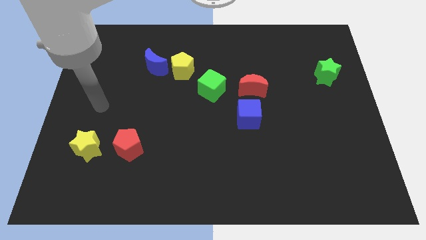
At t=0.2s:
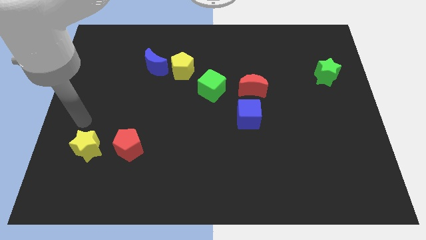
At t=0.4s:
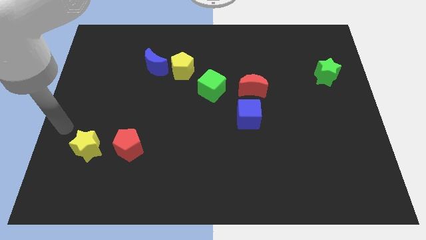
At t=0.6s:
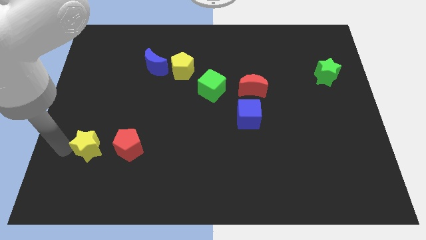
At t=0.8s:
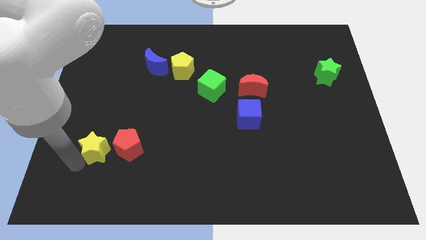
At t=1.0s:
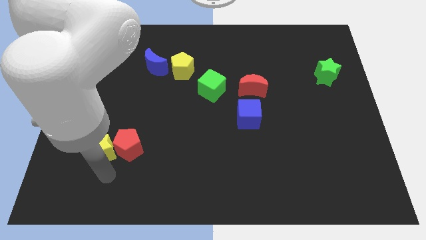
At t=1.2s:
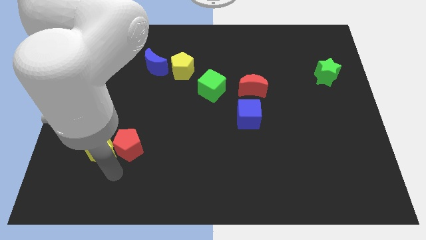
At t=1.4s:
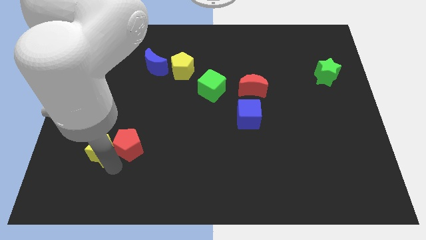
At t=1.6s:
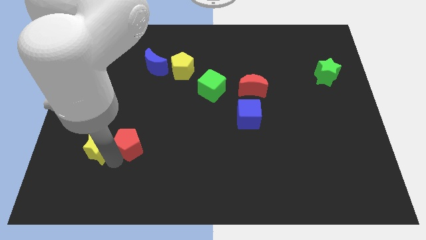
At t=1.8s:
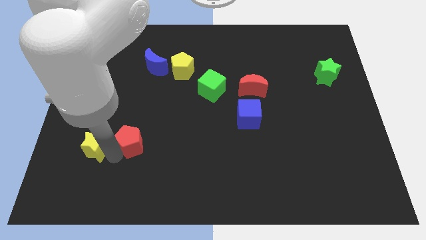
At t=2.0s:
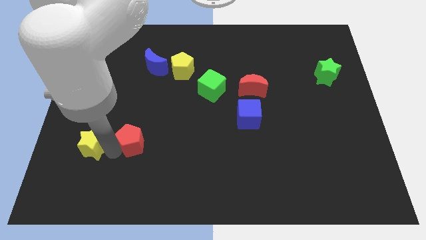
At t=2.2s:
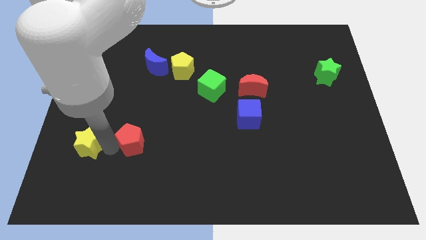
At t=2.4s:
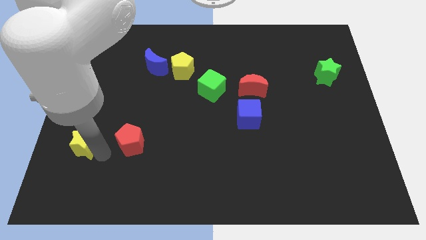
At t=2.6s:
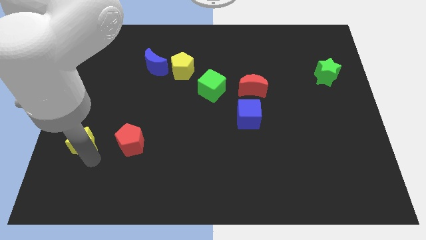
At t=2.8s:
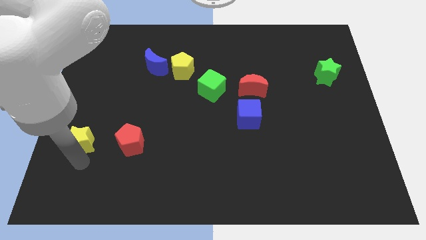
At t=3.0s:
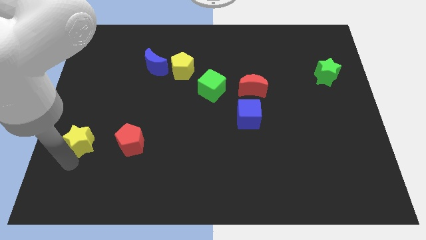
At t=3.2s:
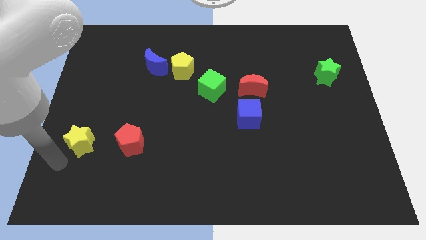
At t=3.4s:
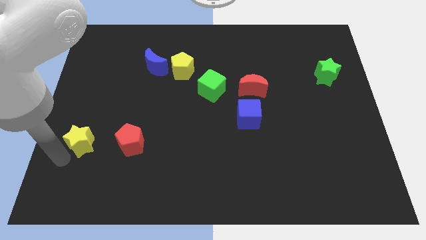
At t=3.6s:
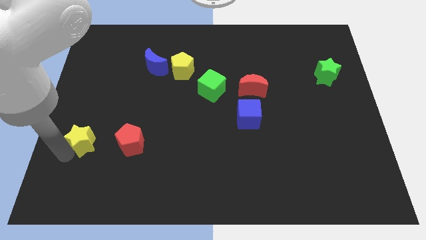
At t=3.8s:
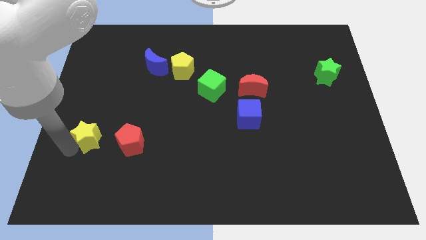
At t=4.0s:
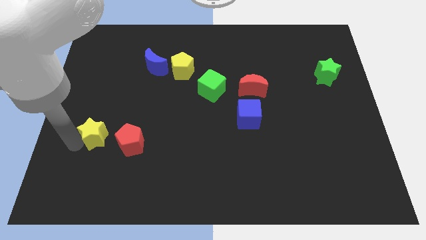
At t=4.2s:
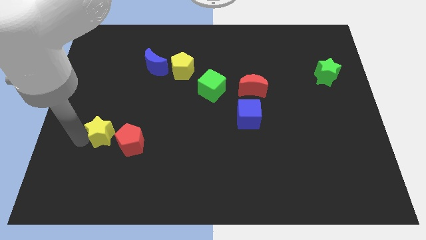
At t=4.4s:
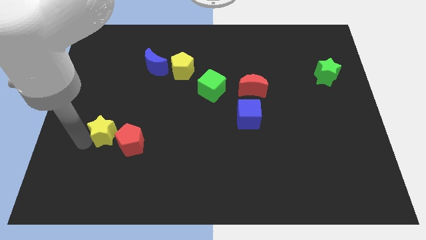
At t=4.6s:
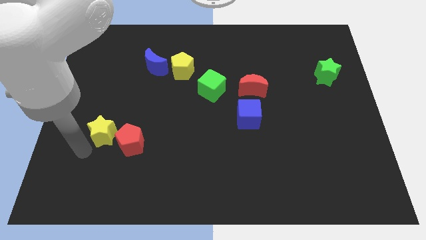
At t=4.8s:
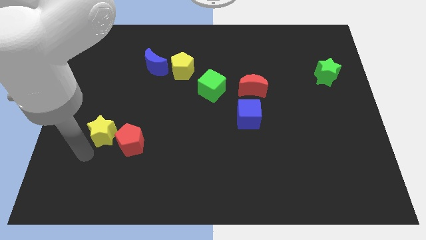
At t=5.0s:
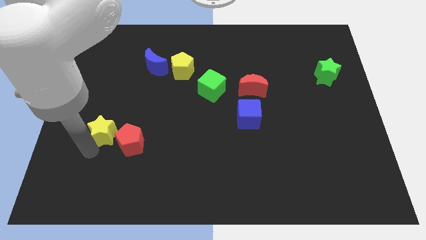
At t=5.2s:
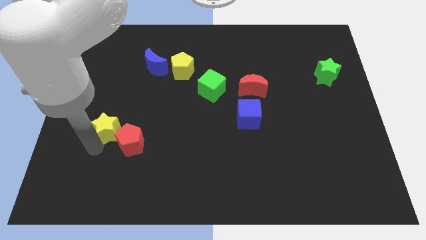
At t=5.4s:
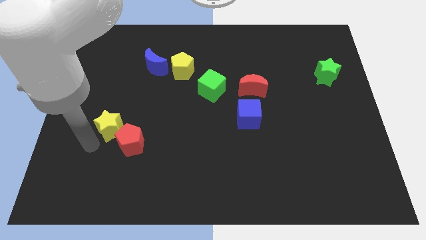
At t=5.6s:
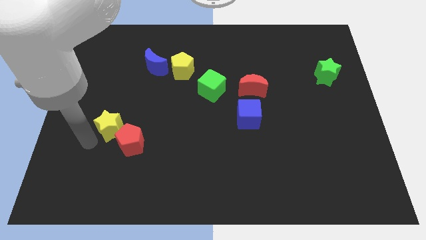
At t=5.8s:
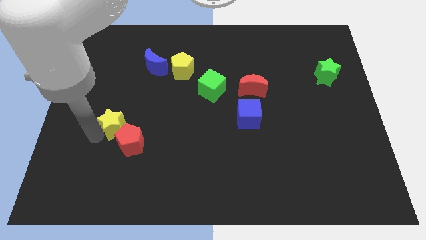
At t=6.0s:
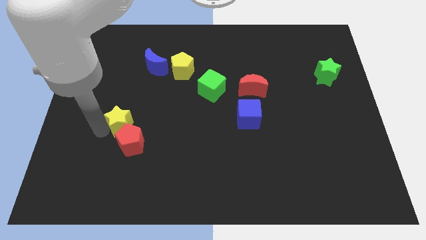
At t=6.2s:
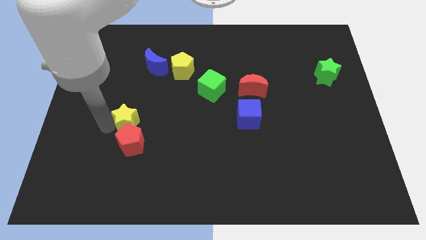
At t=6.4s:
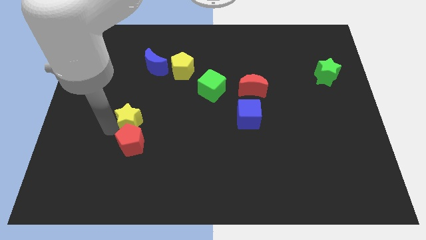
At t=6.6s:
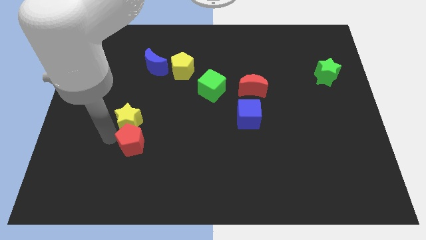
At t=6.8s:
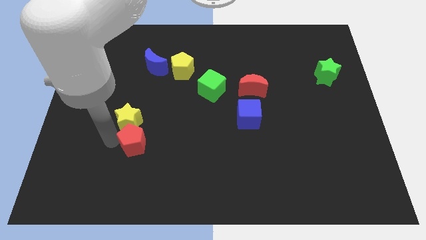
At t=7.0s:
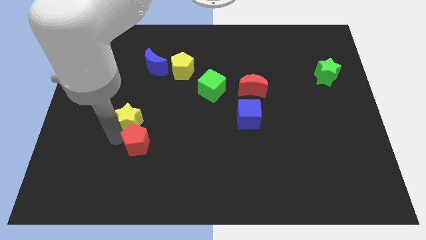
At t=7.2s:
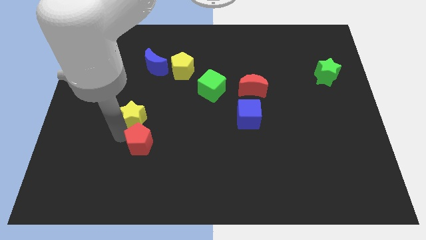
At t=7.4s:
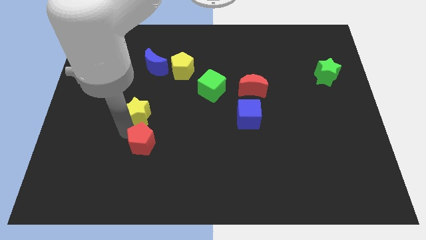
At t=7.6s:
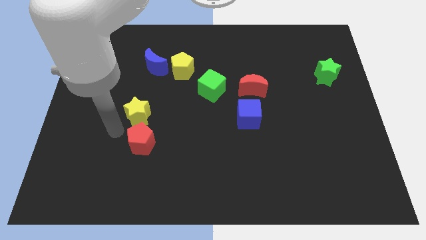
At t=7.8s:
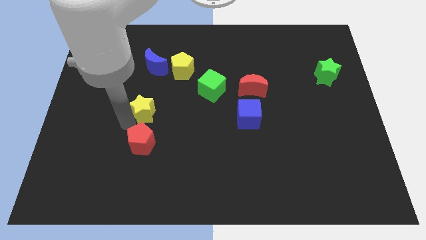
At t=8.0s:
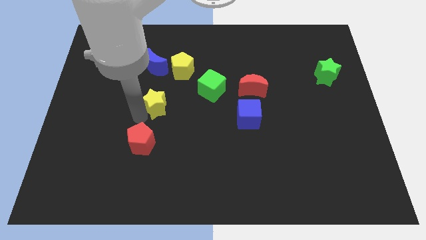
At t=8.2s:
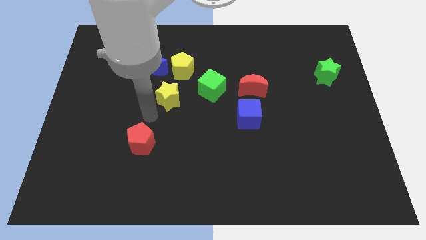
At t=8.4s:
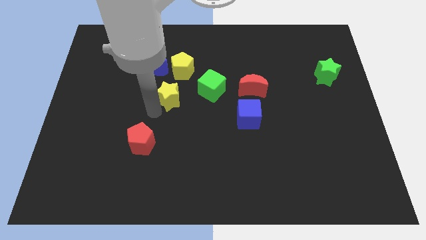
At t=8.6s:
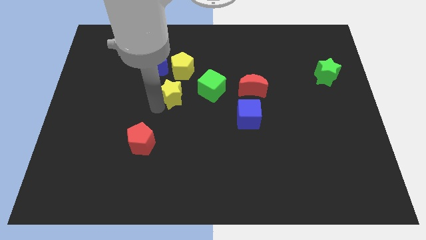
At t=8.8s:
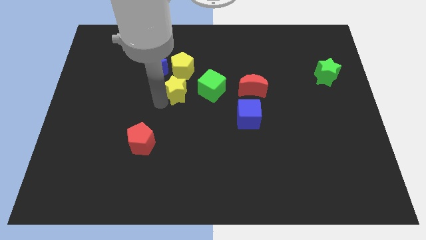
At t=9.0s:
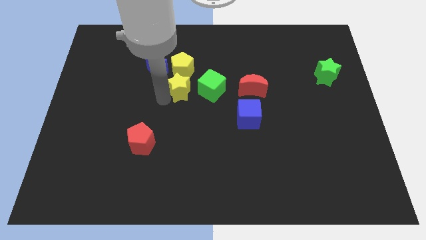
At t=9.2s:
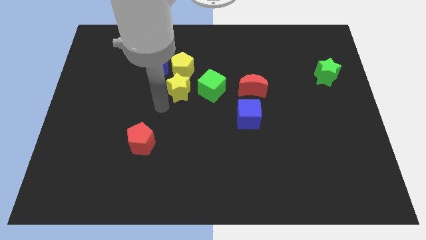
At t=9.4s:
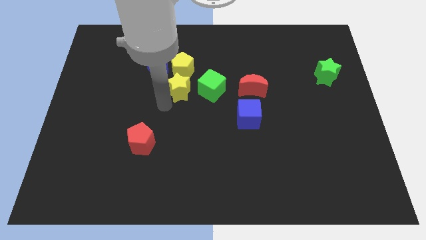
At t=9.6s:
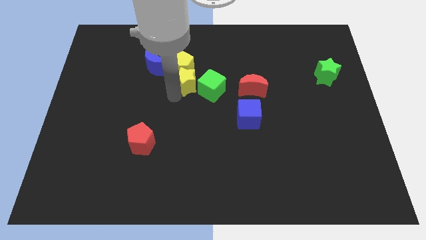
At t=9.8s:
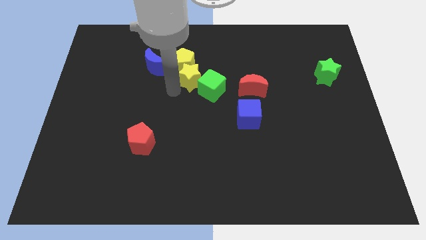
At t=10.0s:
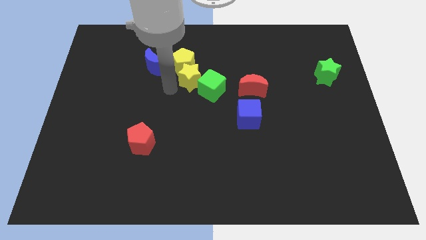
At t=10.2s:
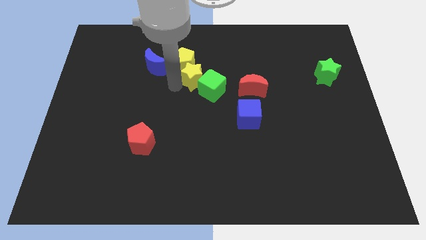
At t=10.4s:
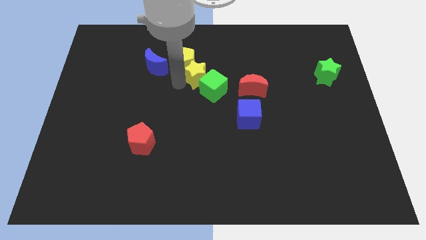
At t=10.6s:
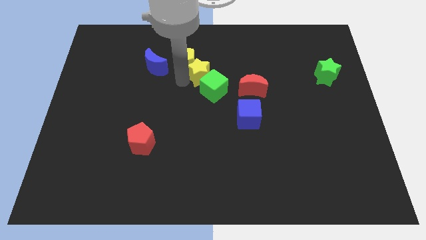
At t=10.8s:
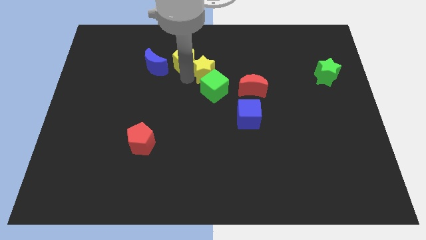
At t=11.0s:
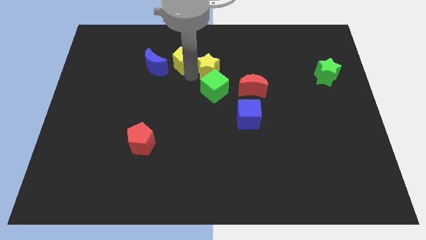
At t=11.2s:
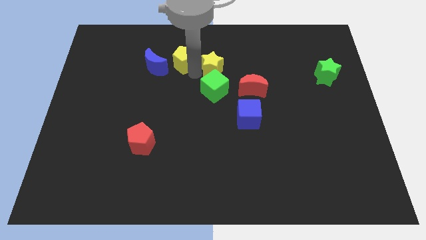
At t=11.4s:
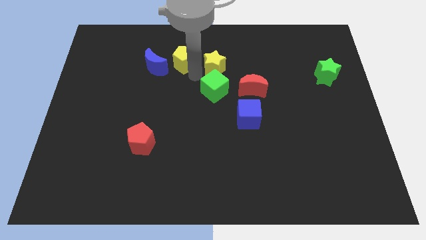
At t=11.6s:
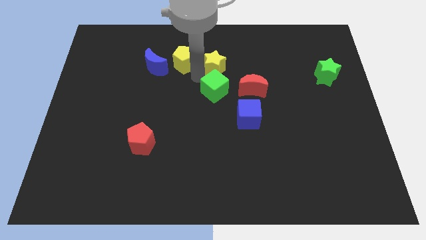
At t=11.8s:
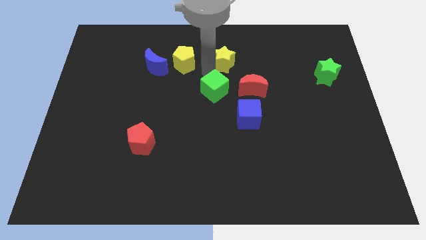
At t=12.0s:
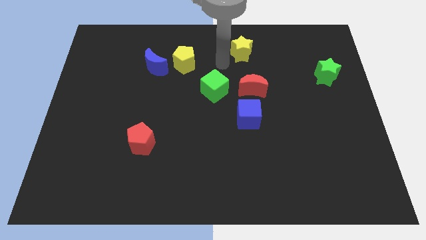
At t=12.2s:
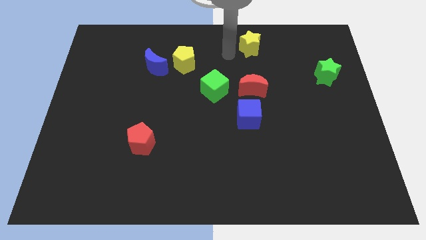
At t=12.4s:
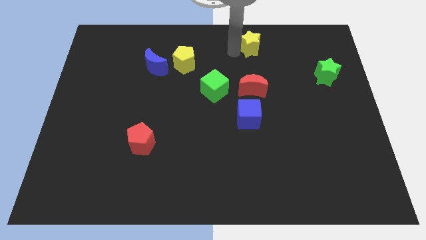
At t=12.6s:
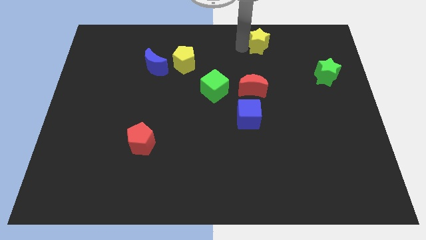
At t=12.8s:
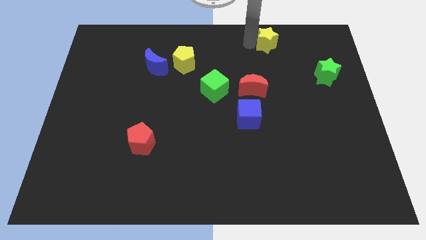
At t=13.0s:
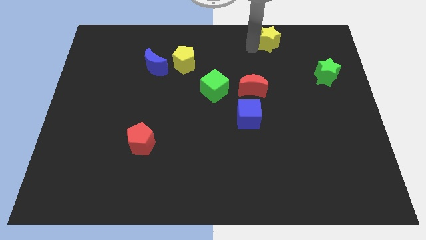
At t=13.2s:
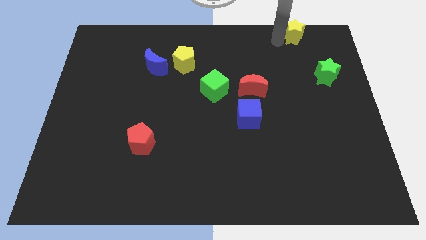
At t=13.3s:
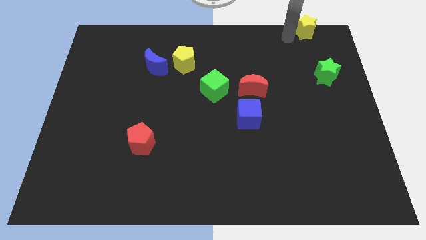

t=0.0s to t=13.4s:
put the yellow star to the top right of the board
